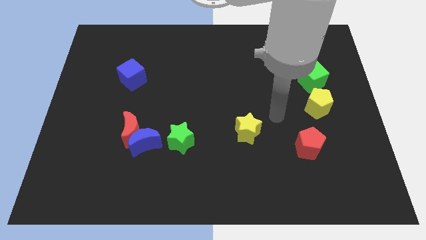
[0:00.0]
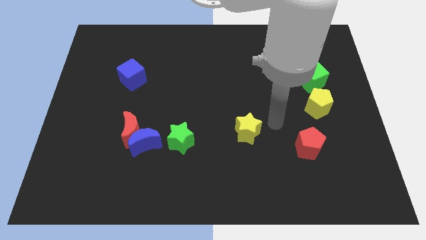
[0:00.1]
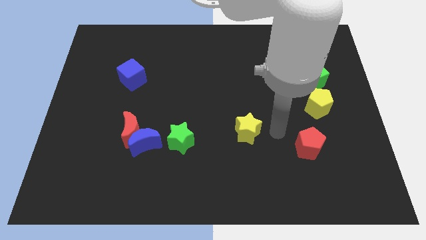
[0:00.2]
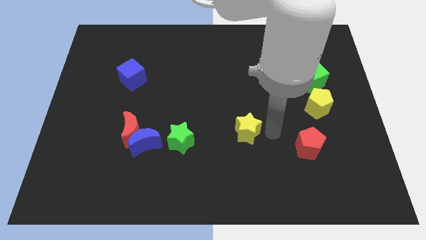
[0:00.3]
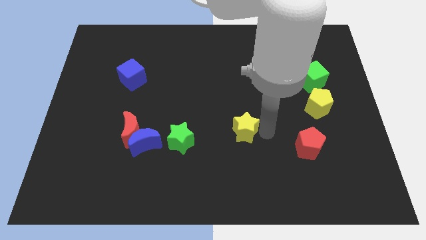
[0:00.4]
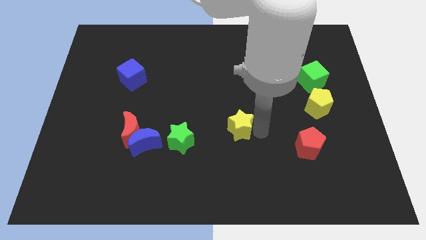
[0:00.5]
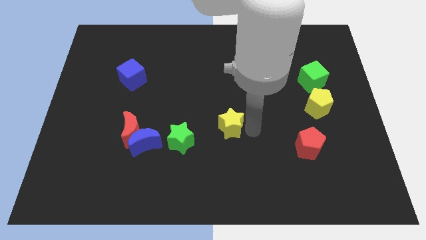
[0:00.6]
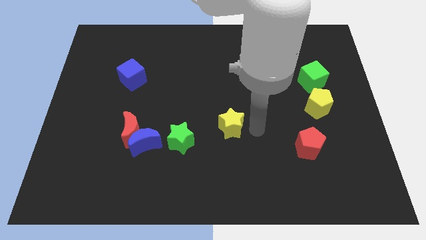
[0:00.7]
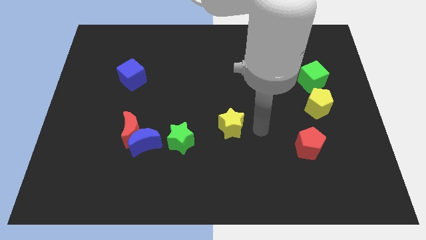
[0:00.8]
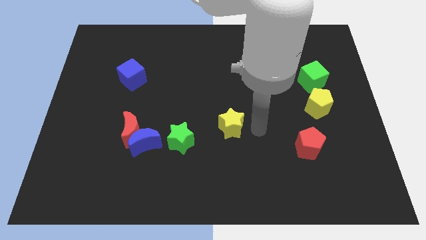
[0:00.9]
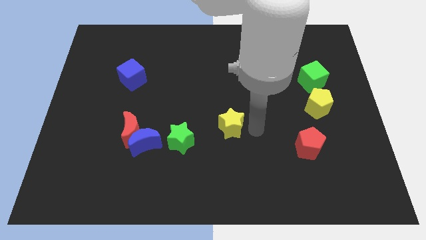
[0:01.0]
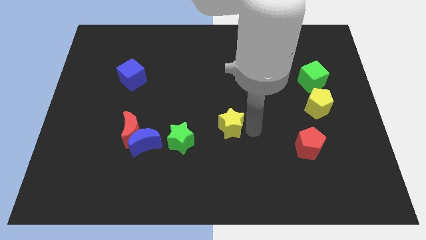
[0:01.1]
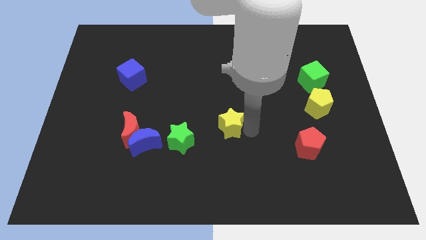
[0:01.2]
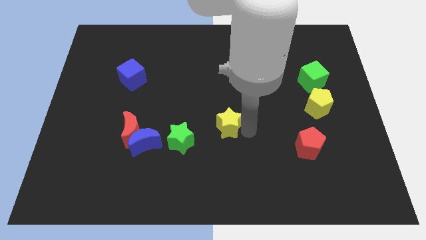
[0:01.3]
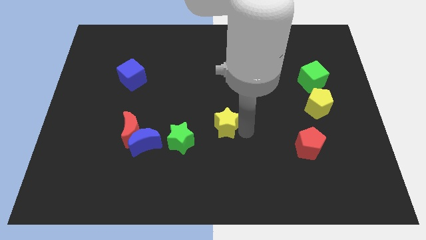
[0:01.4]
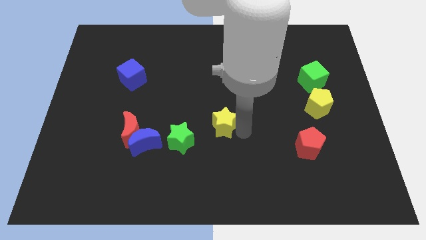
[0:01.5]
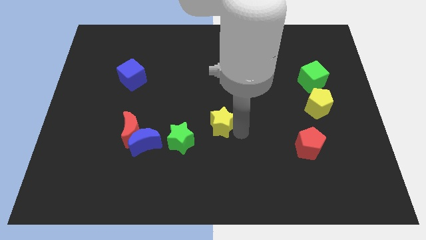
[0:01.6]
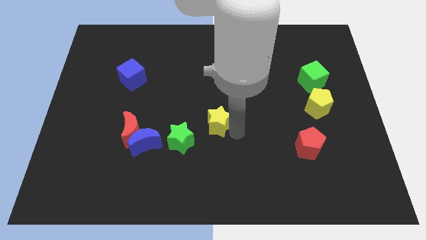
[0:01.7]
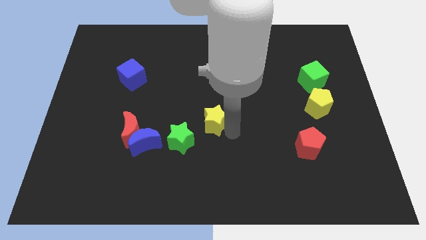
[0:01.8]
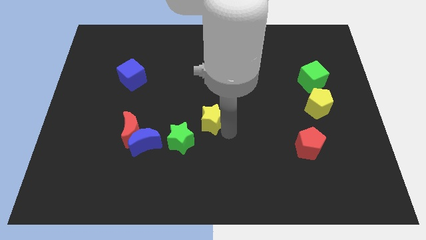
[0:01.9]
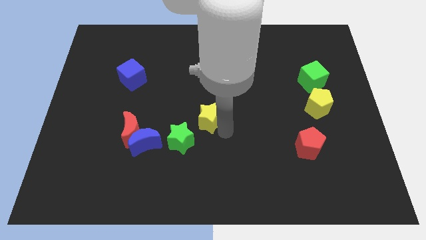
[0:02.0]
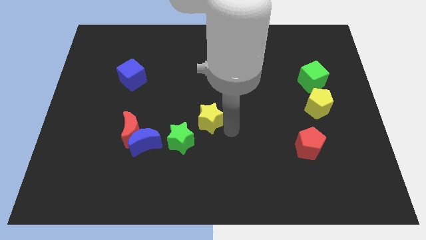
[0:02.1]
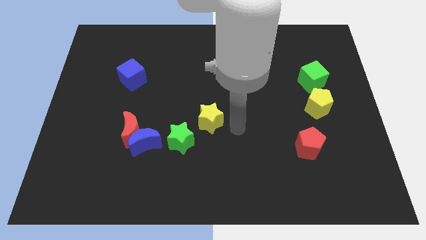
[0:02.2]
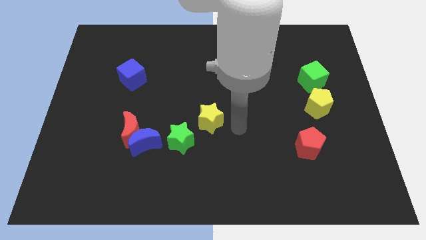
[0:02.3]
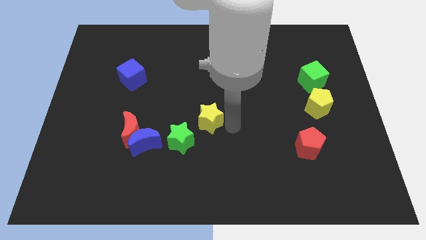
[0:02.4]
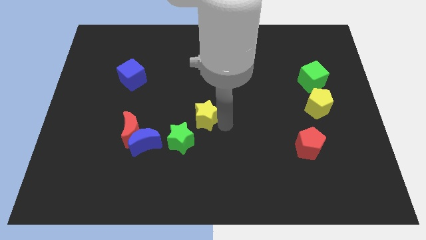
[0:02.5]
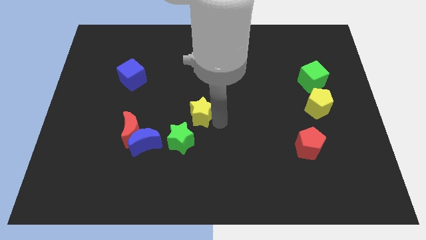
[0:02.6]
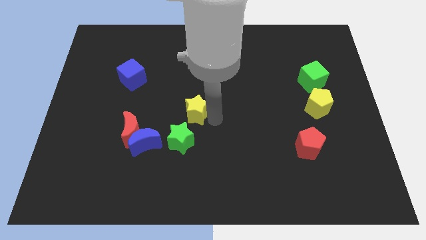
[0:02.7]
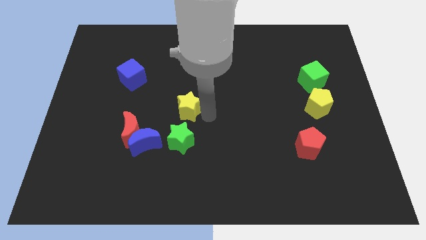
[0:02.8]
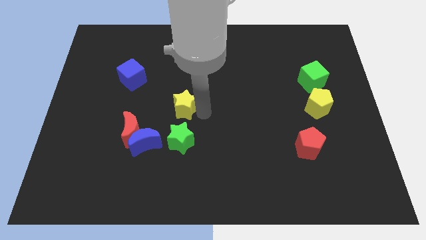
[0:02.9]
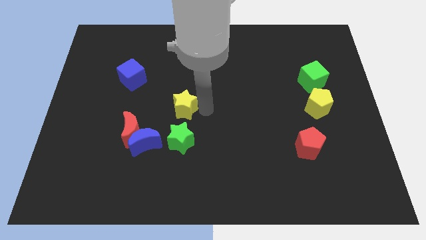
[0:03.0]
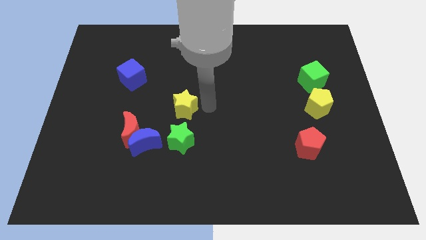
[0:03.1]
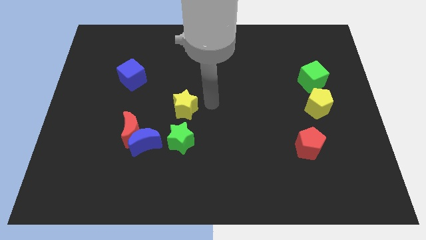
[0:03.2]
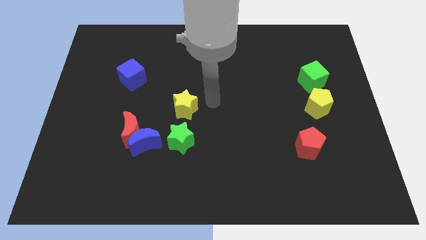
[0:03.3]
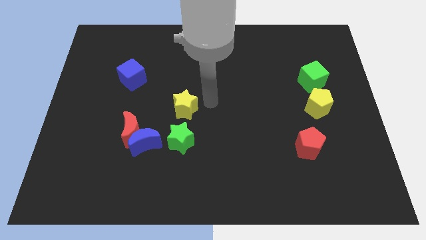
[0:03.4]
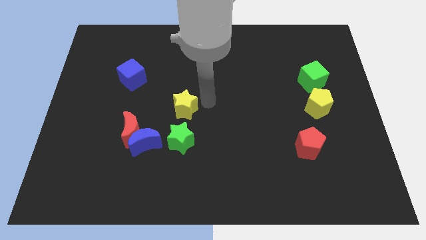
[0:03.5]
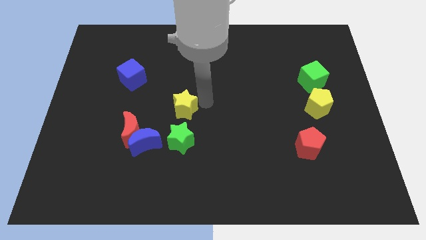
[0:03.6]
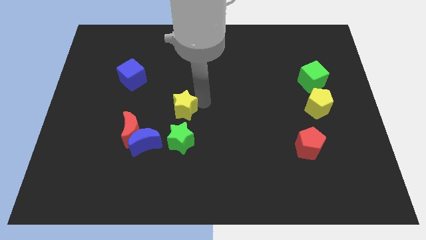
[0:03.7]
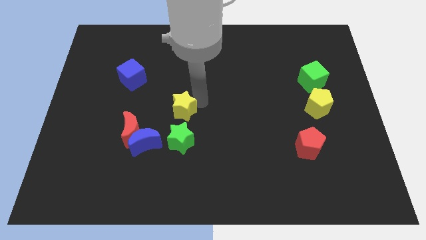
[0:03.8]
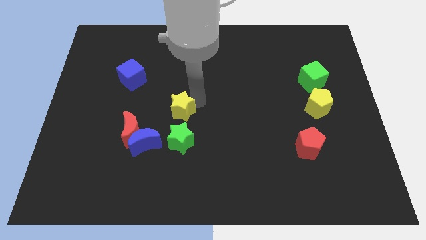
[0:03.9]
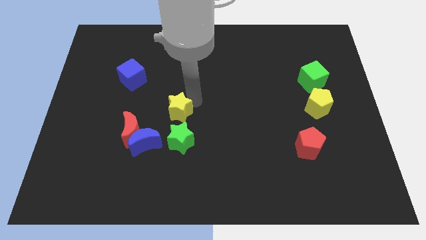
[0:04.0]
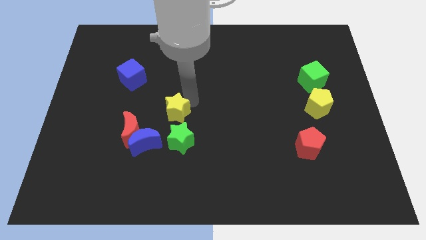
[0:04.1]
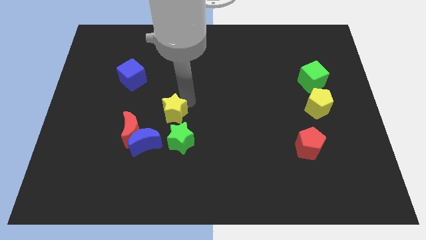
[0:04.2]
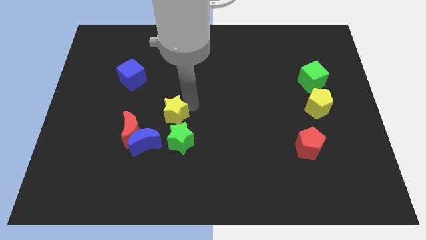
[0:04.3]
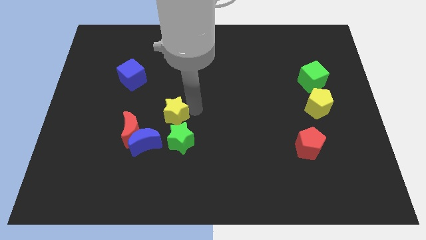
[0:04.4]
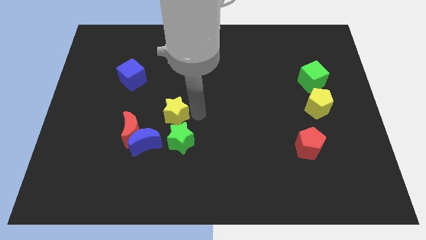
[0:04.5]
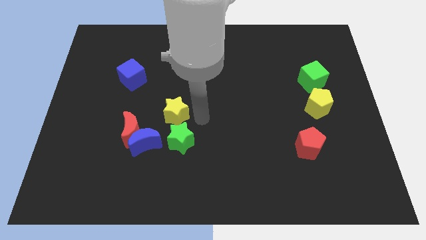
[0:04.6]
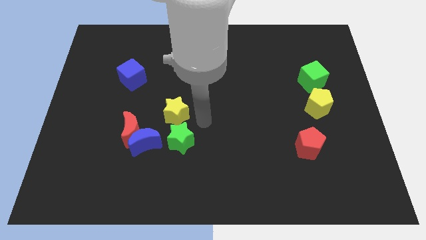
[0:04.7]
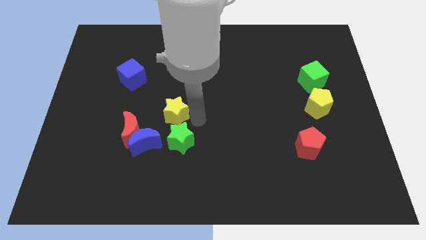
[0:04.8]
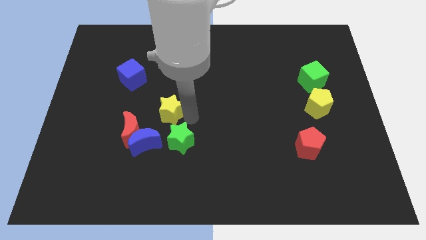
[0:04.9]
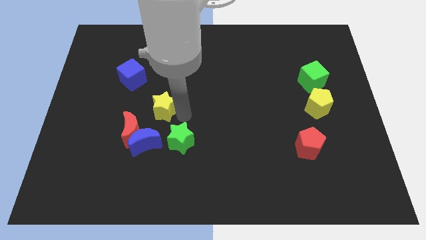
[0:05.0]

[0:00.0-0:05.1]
move the yellow star to the top side of the blue moon

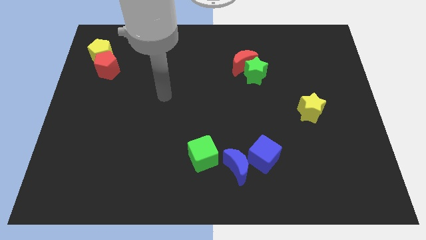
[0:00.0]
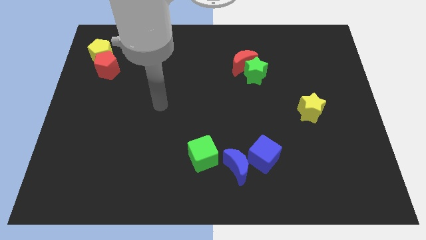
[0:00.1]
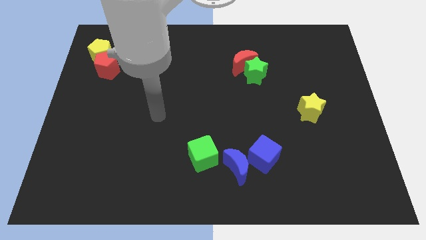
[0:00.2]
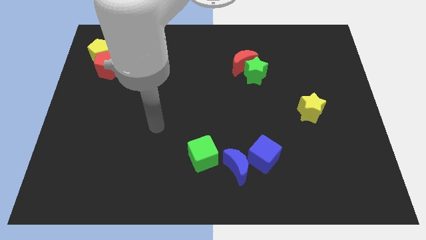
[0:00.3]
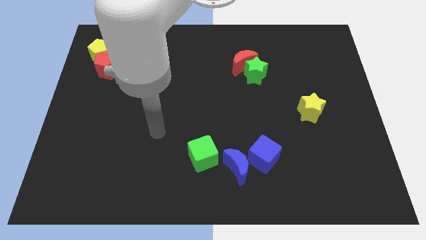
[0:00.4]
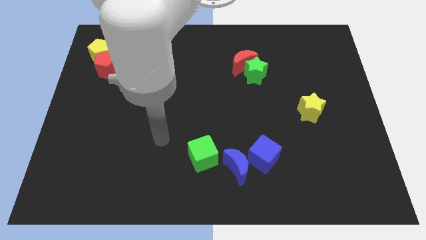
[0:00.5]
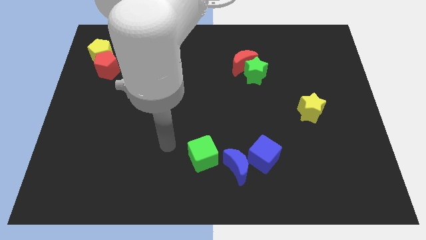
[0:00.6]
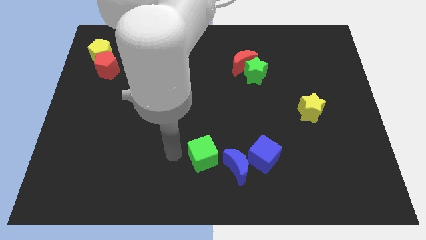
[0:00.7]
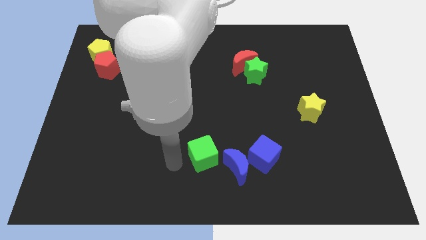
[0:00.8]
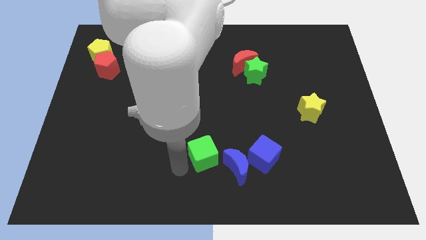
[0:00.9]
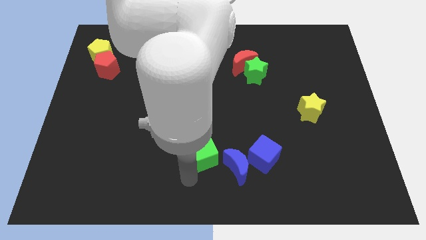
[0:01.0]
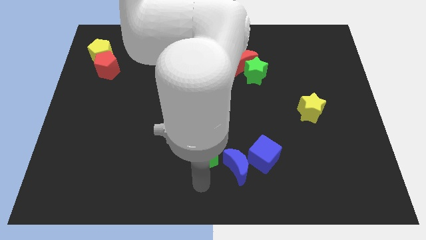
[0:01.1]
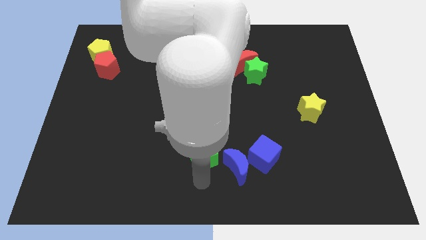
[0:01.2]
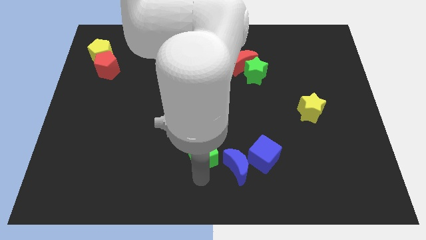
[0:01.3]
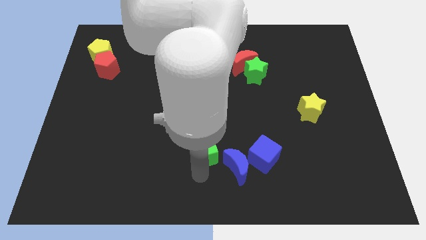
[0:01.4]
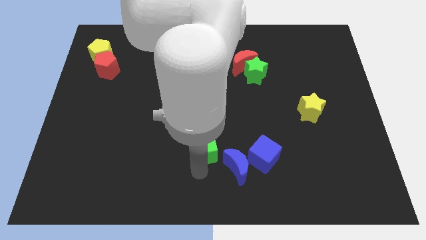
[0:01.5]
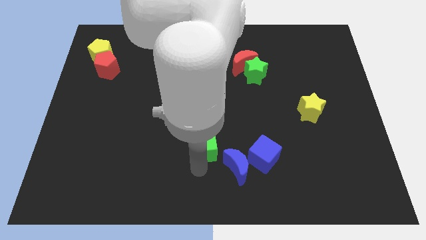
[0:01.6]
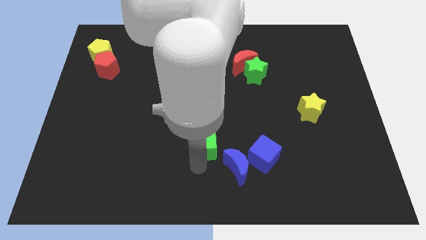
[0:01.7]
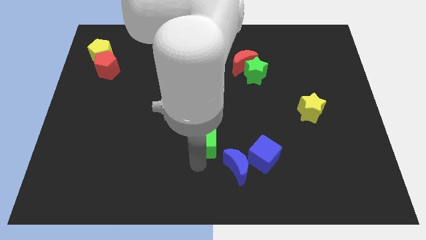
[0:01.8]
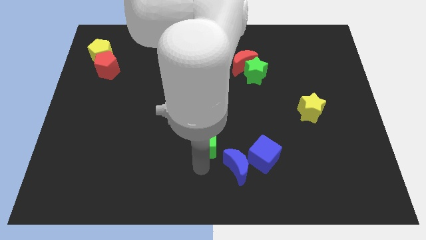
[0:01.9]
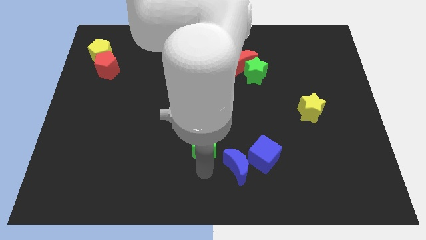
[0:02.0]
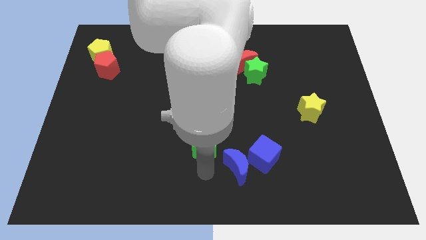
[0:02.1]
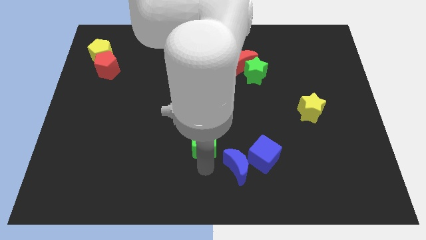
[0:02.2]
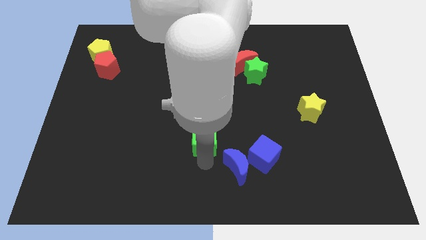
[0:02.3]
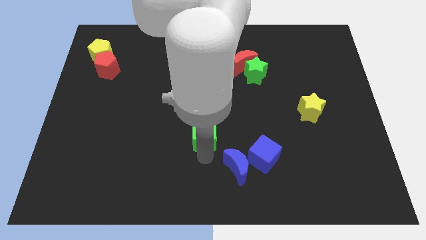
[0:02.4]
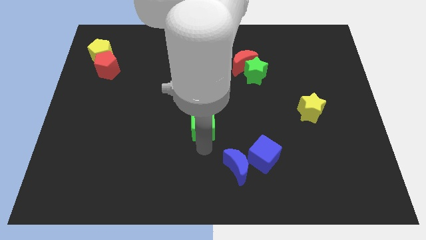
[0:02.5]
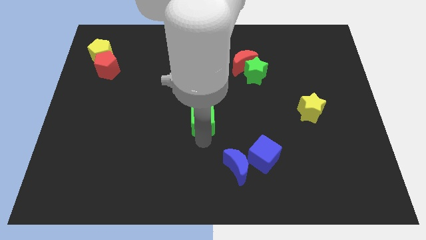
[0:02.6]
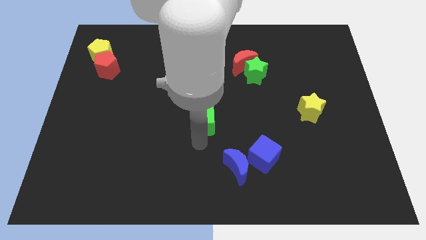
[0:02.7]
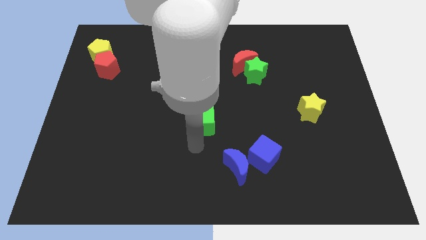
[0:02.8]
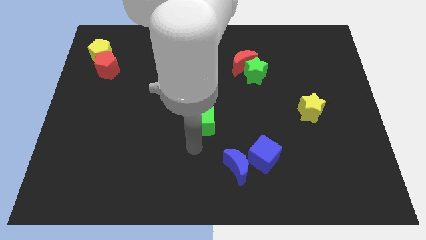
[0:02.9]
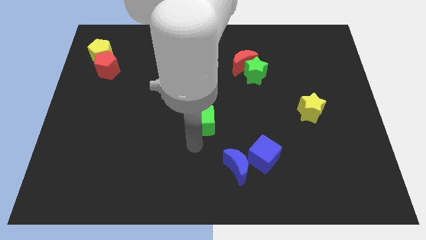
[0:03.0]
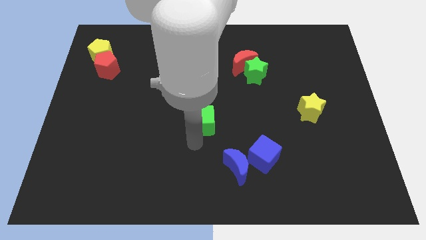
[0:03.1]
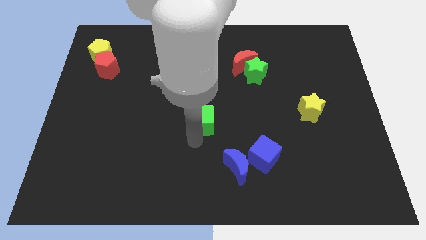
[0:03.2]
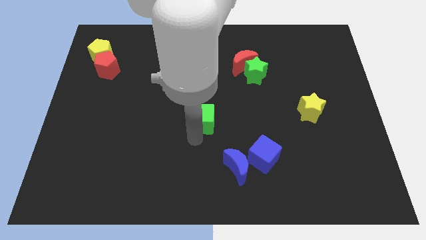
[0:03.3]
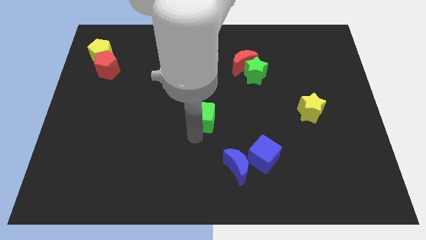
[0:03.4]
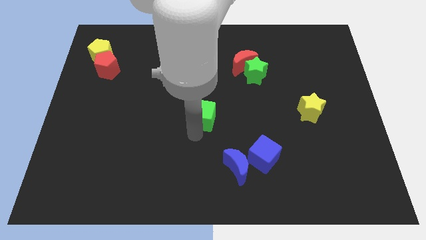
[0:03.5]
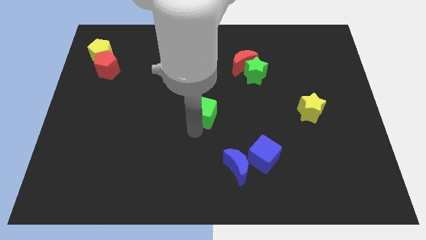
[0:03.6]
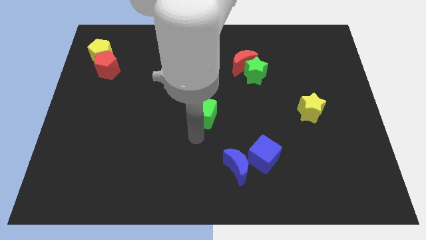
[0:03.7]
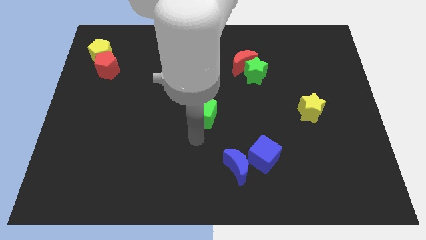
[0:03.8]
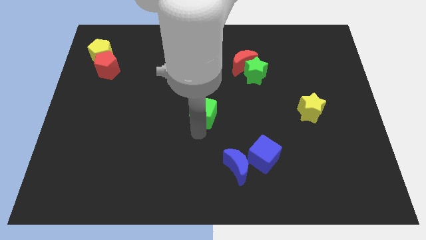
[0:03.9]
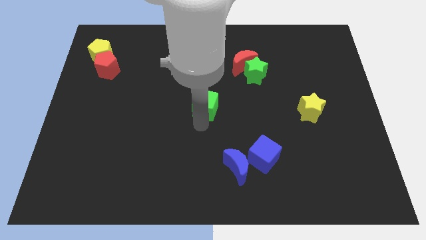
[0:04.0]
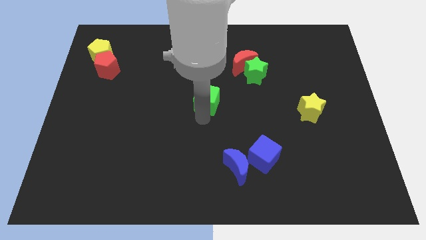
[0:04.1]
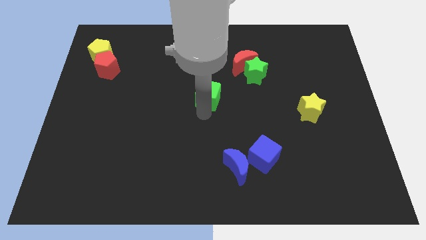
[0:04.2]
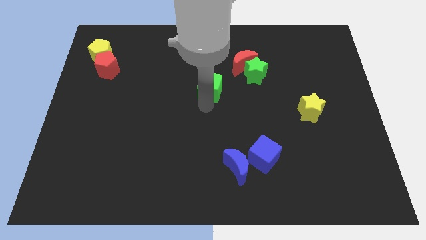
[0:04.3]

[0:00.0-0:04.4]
push the green cube to the left of the green star
